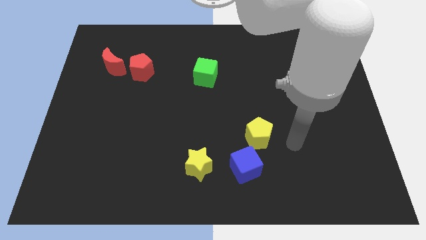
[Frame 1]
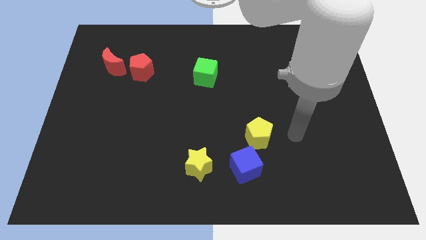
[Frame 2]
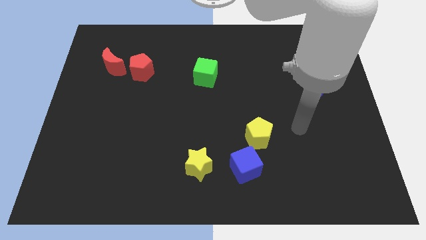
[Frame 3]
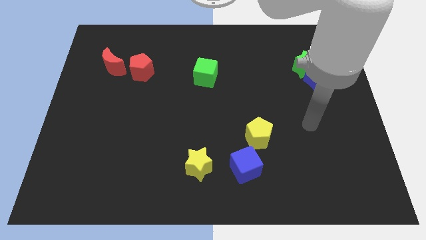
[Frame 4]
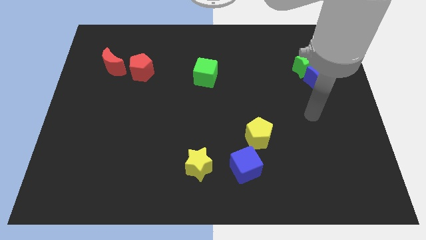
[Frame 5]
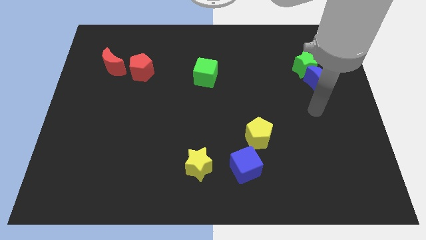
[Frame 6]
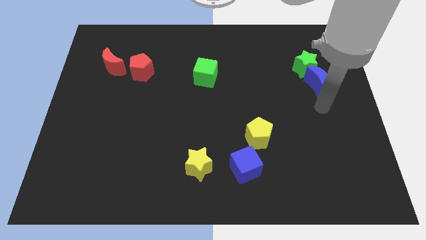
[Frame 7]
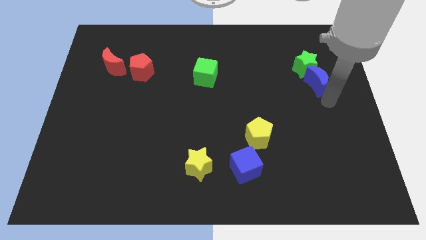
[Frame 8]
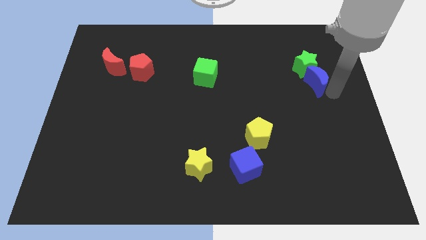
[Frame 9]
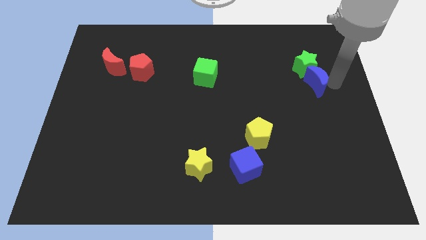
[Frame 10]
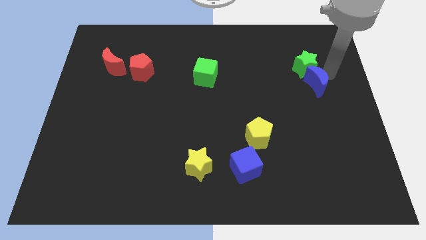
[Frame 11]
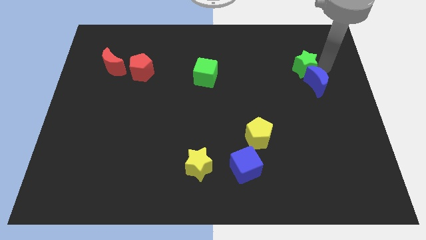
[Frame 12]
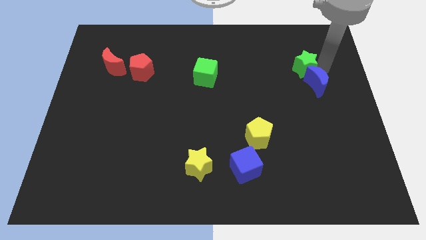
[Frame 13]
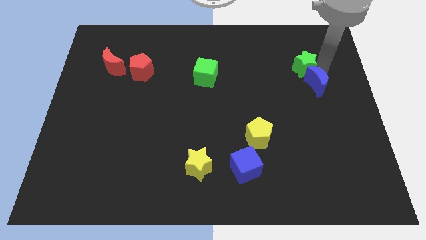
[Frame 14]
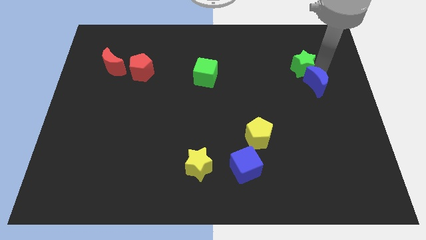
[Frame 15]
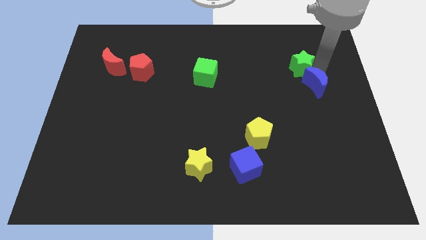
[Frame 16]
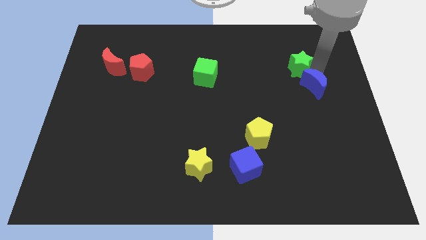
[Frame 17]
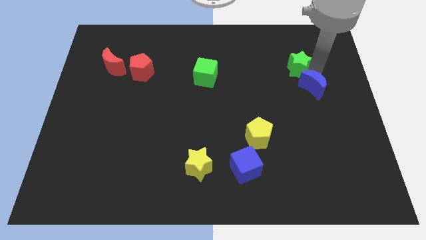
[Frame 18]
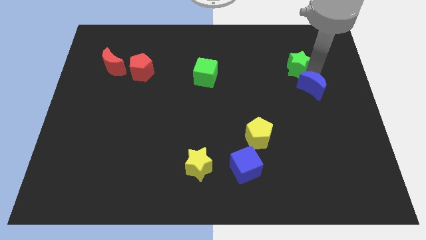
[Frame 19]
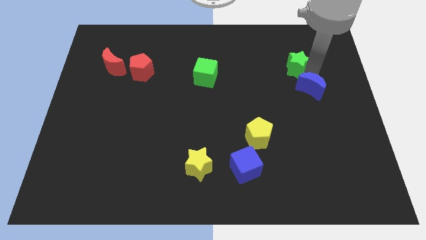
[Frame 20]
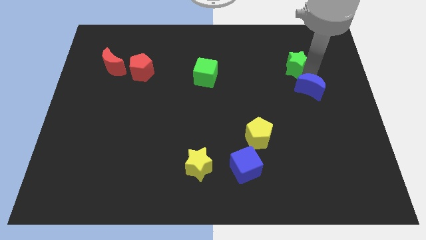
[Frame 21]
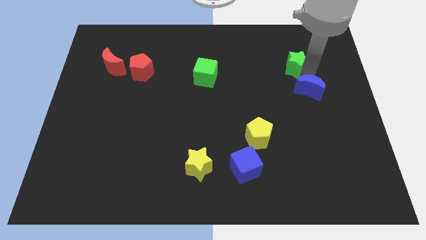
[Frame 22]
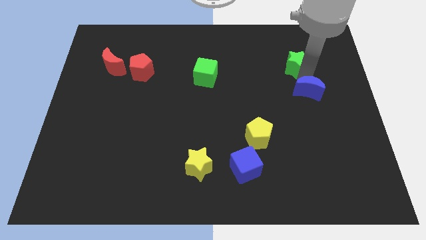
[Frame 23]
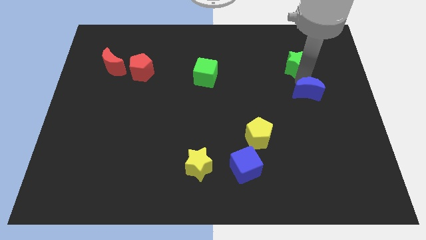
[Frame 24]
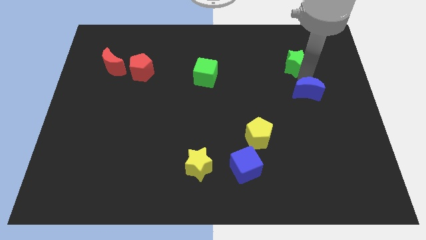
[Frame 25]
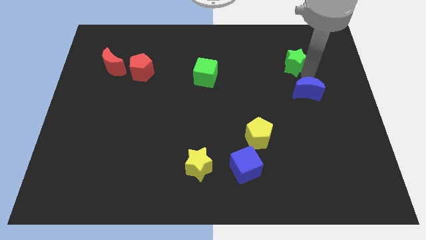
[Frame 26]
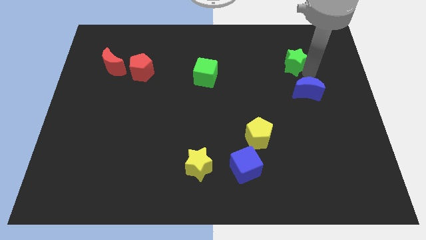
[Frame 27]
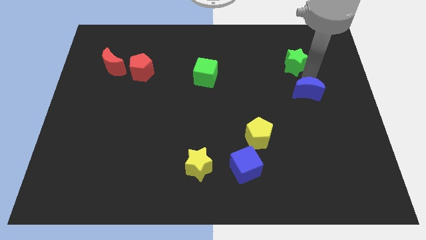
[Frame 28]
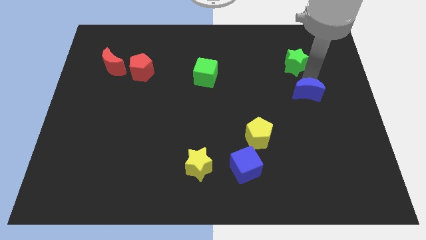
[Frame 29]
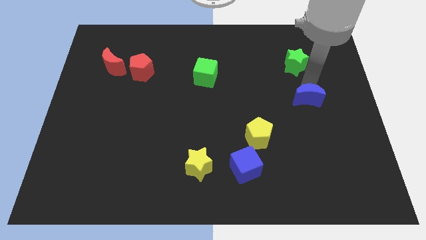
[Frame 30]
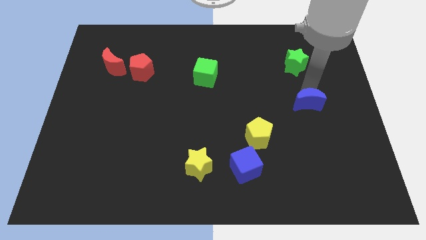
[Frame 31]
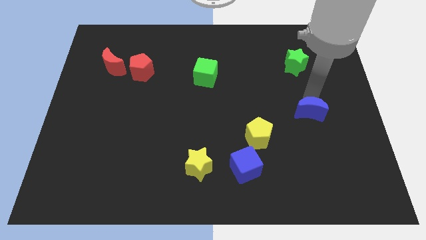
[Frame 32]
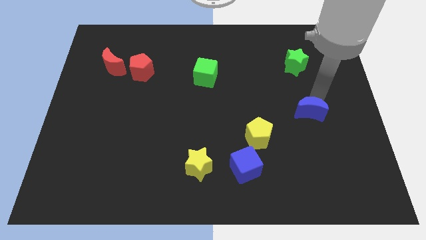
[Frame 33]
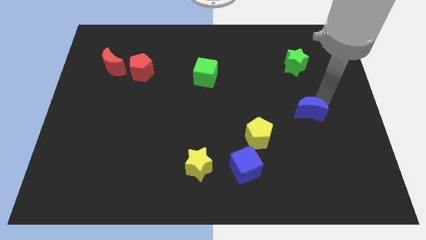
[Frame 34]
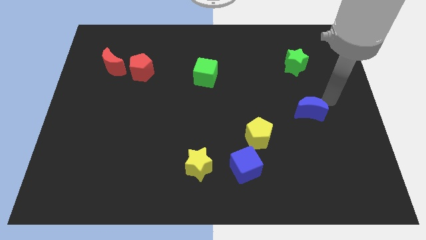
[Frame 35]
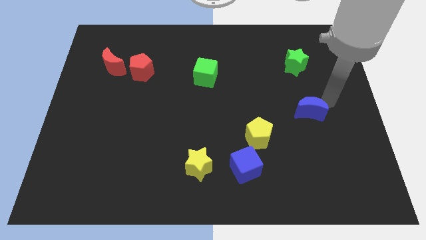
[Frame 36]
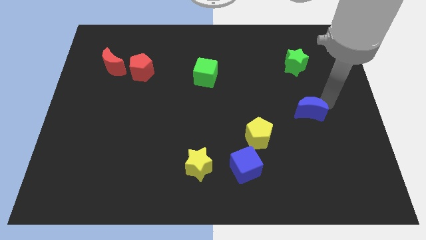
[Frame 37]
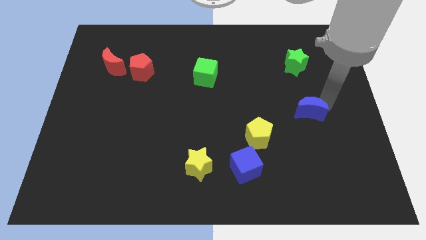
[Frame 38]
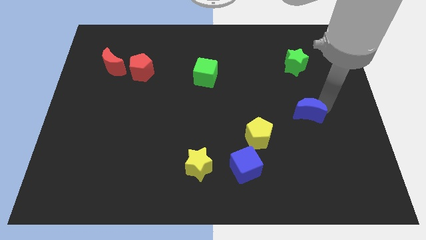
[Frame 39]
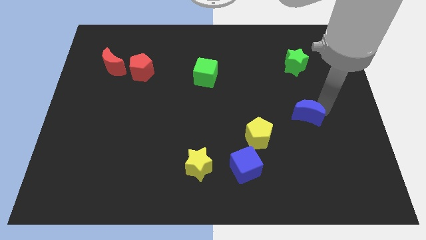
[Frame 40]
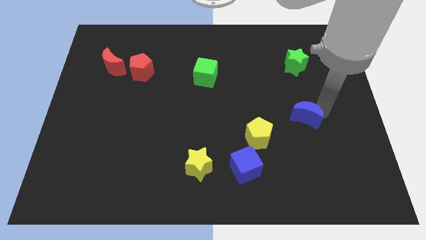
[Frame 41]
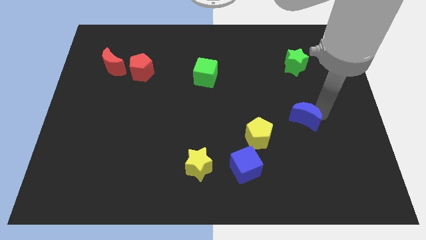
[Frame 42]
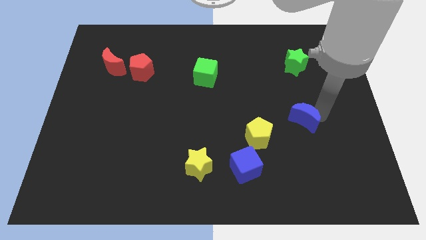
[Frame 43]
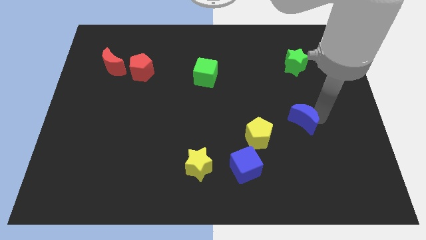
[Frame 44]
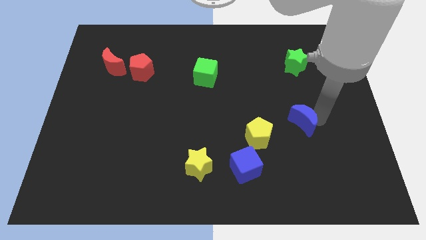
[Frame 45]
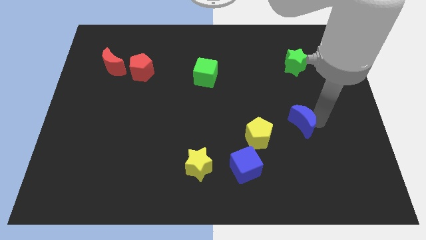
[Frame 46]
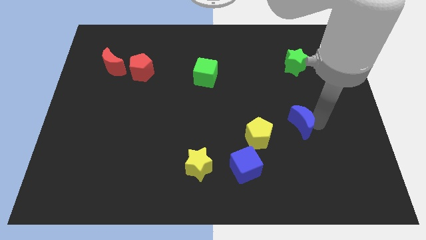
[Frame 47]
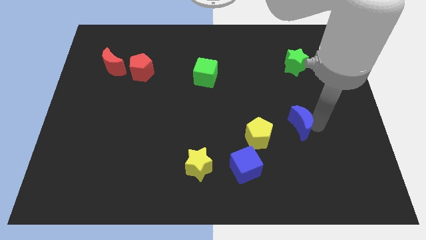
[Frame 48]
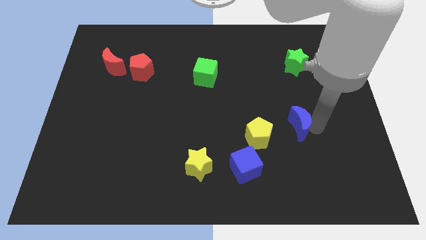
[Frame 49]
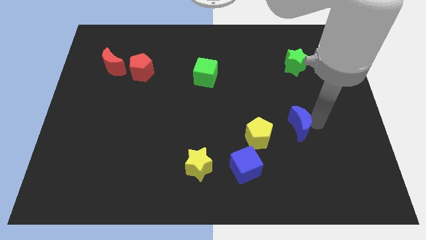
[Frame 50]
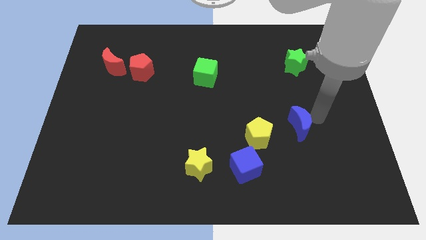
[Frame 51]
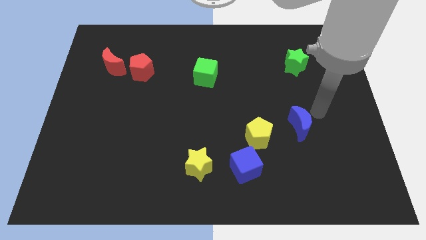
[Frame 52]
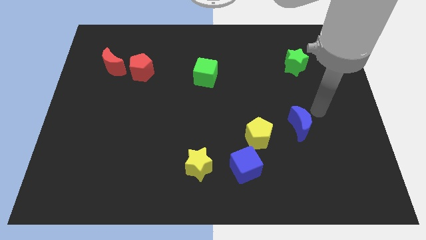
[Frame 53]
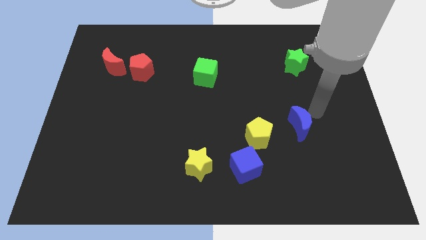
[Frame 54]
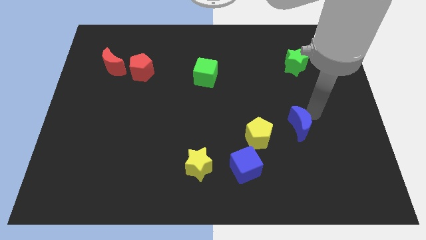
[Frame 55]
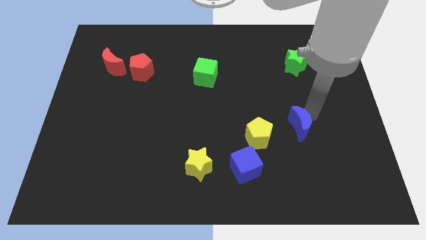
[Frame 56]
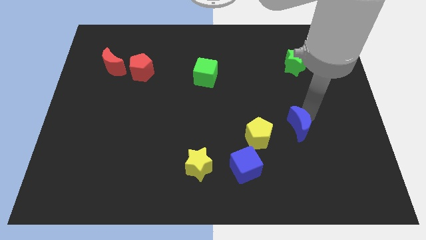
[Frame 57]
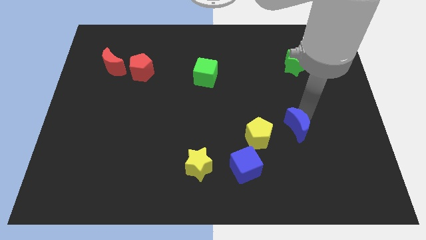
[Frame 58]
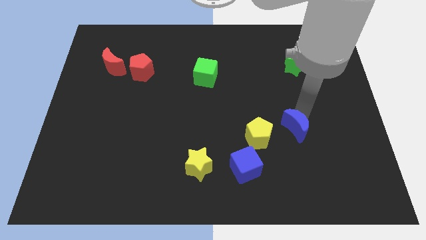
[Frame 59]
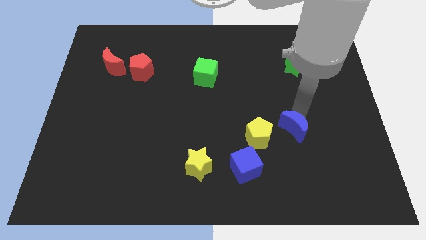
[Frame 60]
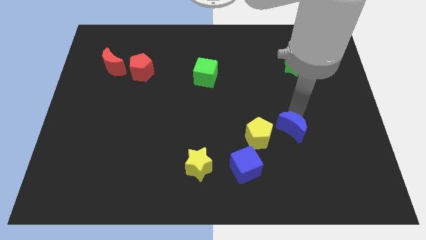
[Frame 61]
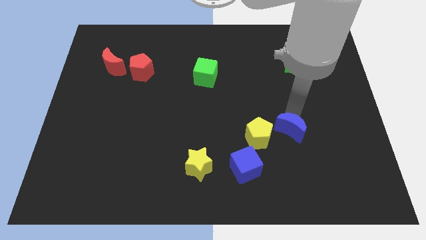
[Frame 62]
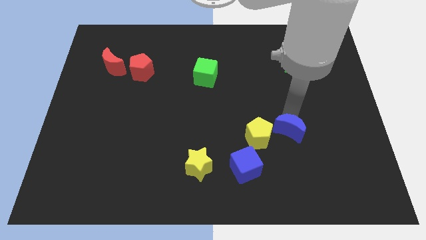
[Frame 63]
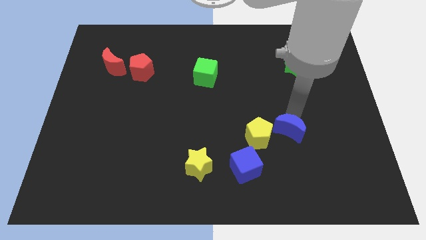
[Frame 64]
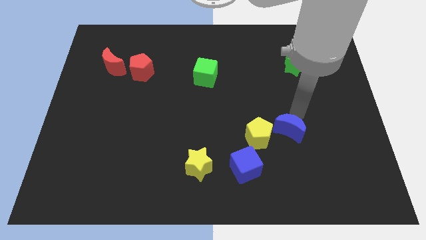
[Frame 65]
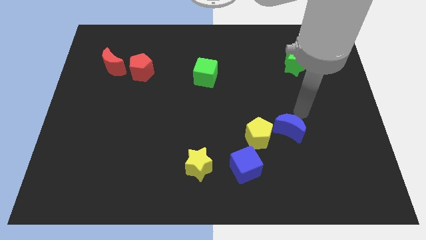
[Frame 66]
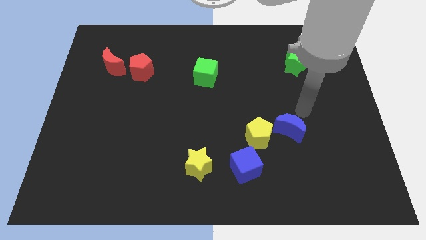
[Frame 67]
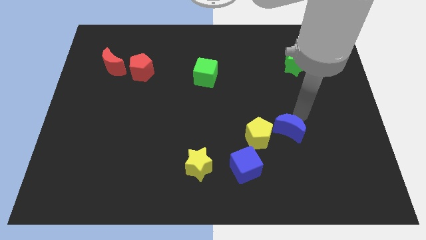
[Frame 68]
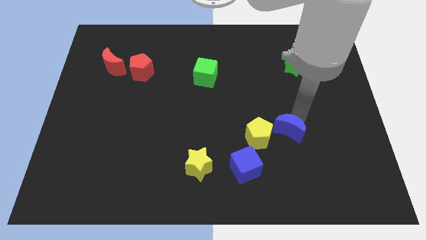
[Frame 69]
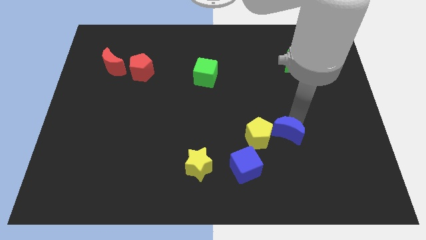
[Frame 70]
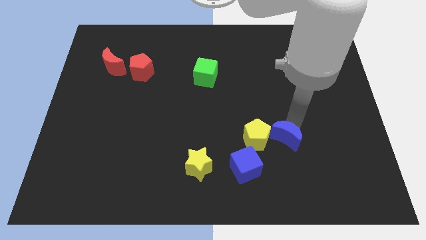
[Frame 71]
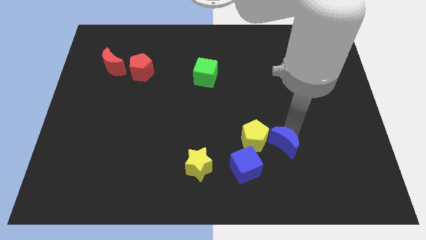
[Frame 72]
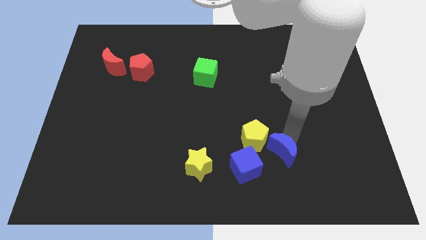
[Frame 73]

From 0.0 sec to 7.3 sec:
push the blue moon diagonally downwards and to the left
